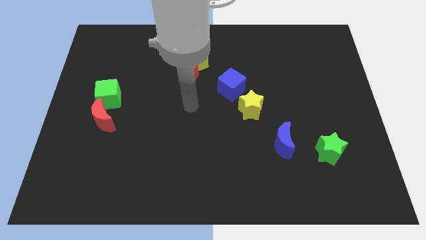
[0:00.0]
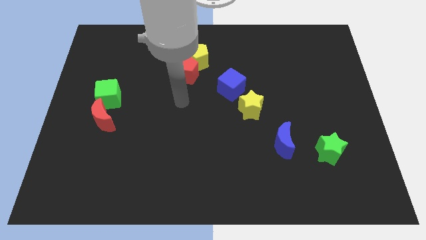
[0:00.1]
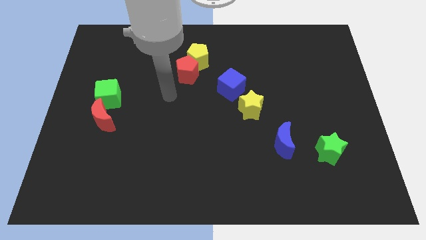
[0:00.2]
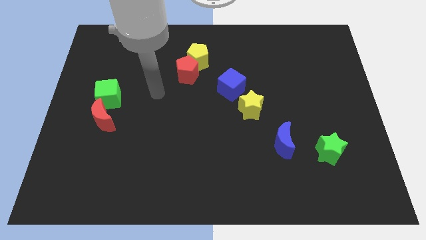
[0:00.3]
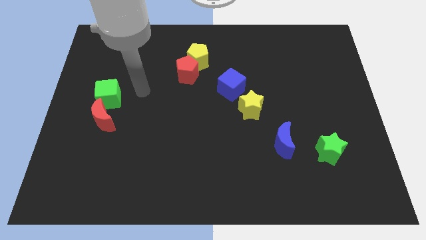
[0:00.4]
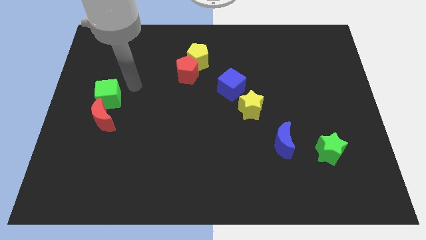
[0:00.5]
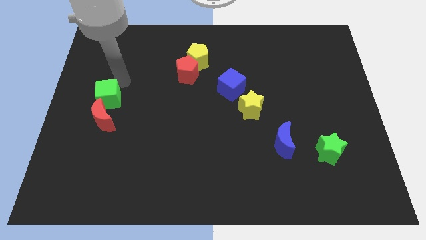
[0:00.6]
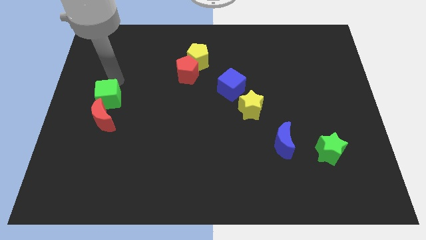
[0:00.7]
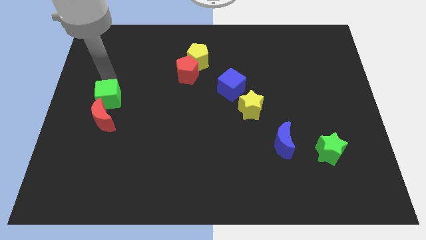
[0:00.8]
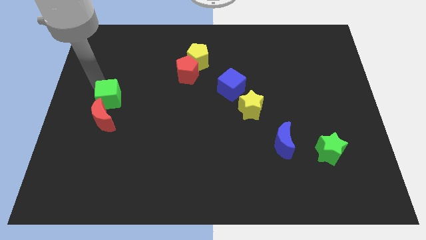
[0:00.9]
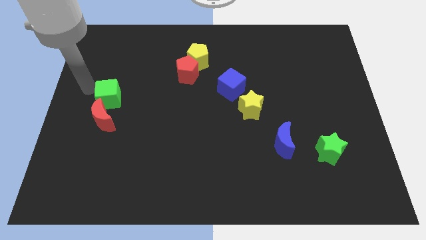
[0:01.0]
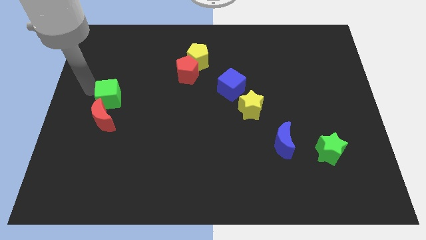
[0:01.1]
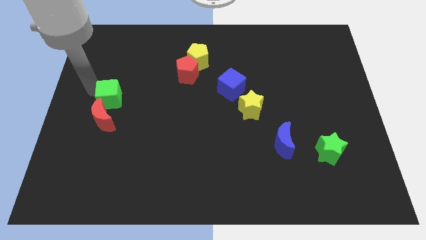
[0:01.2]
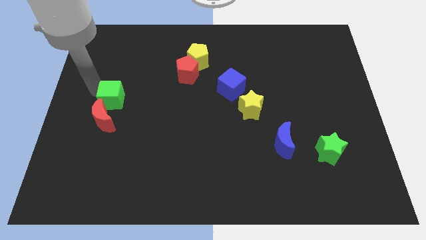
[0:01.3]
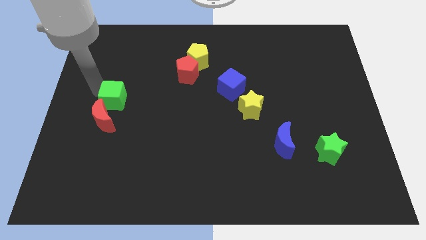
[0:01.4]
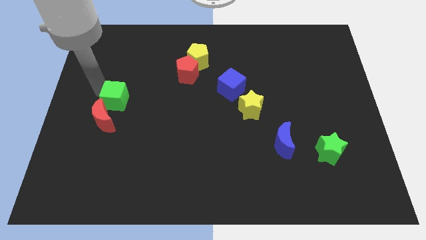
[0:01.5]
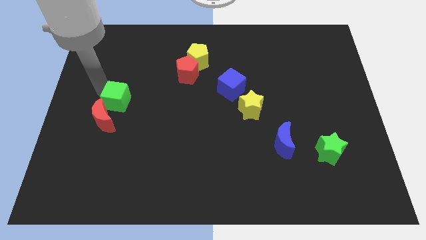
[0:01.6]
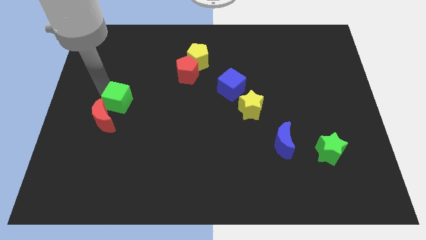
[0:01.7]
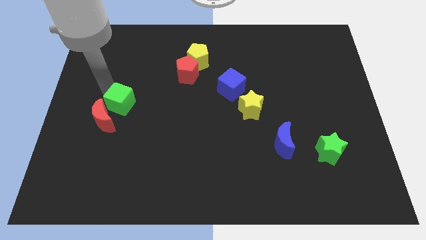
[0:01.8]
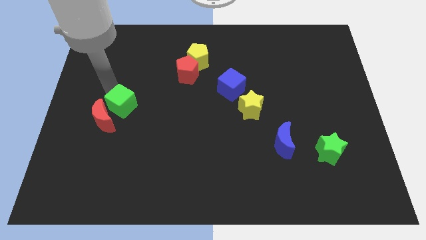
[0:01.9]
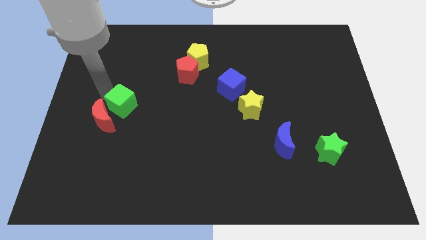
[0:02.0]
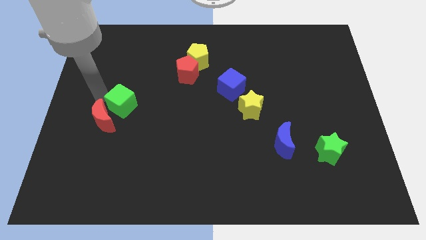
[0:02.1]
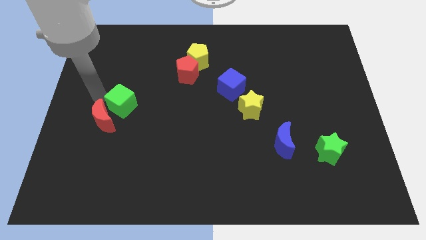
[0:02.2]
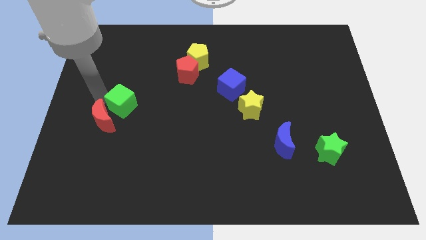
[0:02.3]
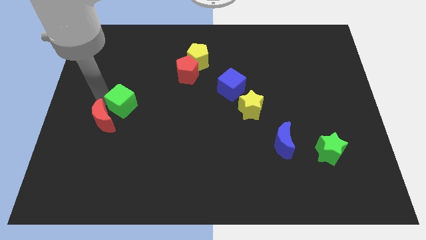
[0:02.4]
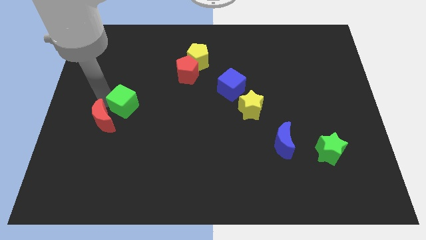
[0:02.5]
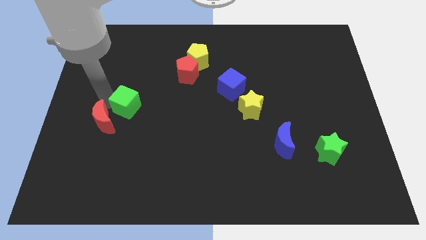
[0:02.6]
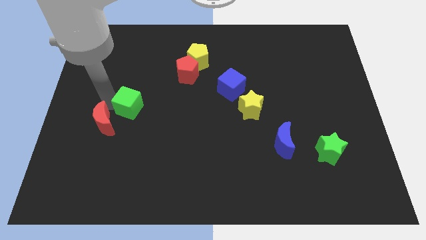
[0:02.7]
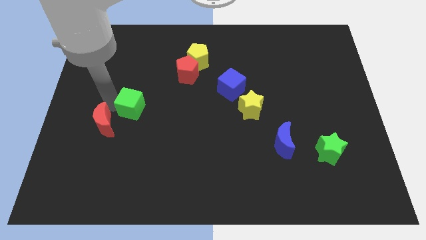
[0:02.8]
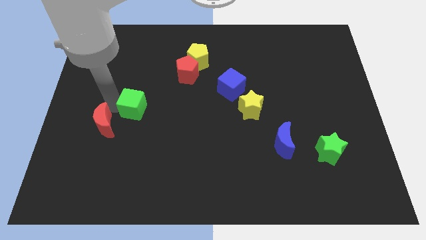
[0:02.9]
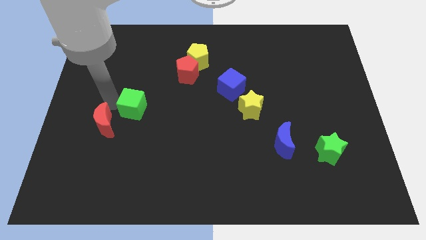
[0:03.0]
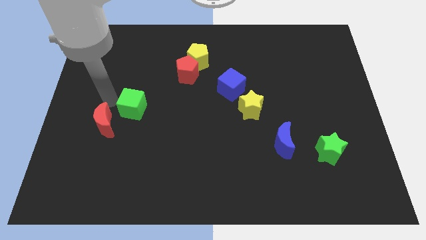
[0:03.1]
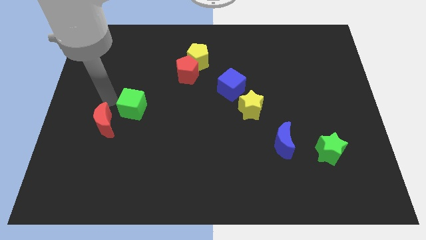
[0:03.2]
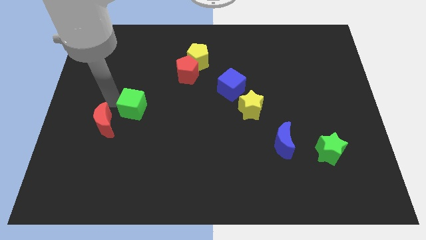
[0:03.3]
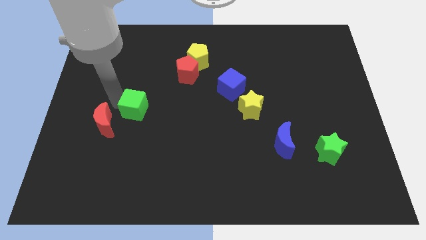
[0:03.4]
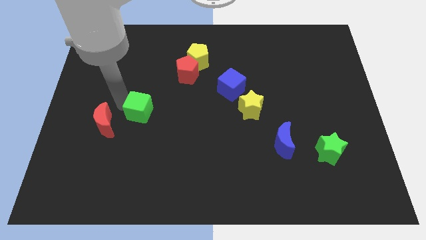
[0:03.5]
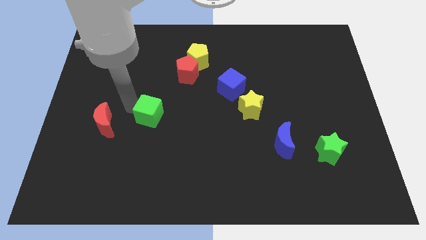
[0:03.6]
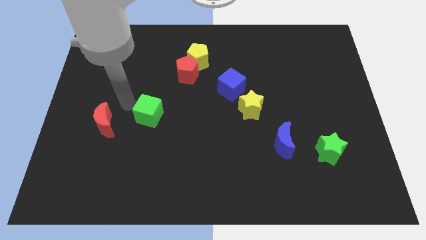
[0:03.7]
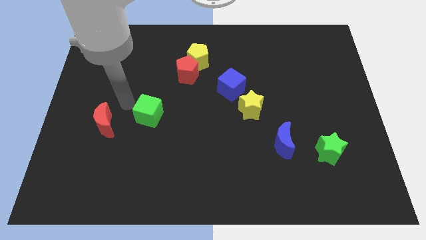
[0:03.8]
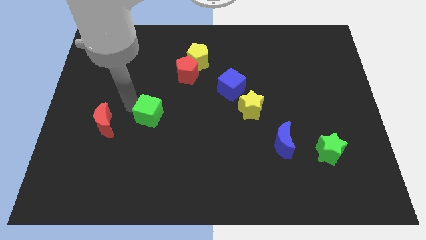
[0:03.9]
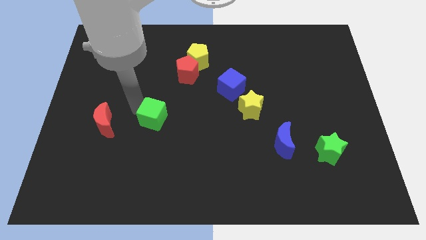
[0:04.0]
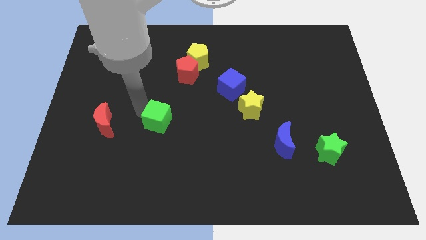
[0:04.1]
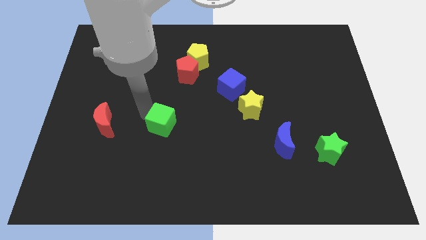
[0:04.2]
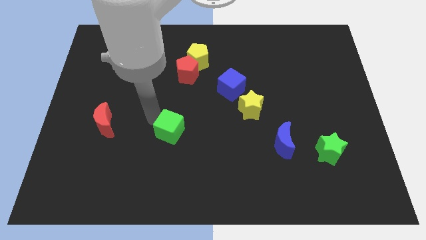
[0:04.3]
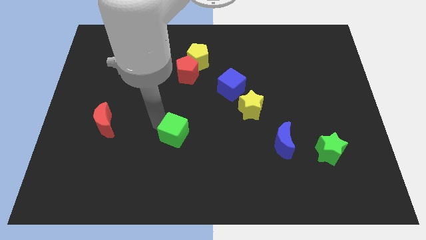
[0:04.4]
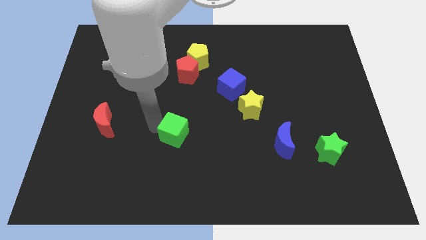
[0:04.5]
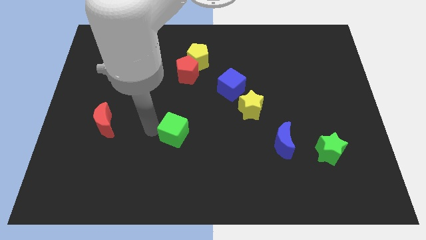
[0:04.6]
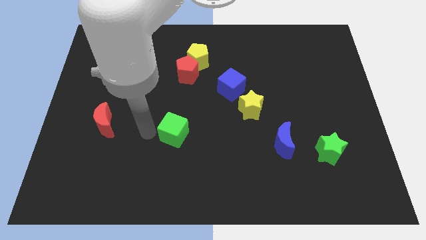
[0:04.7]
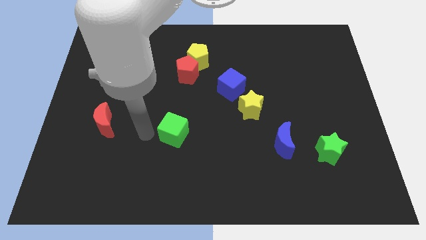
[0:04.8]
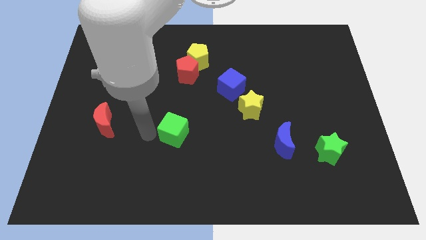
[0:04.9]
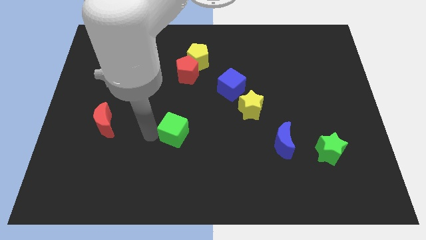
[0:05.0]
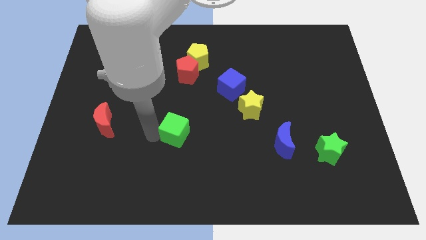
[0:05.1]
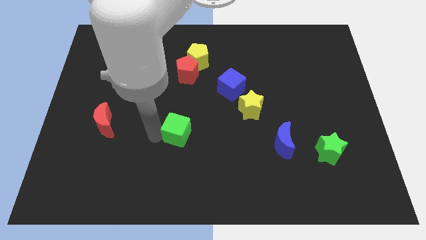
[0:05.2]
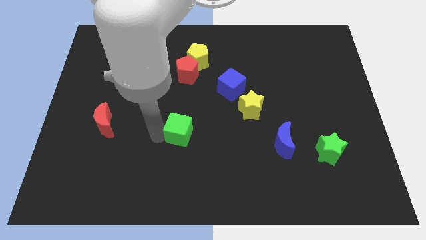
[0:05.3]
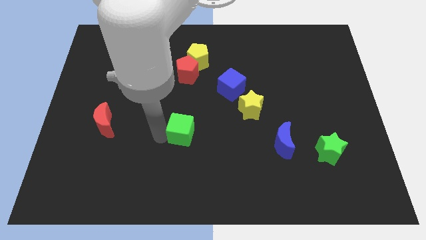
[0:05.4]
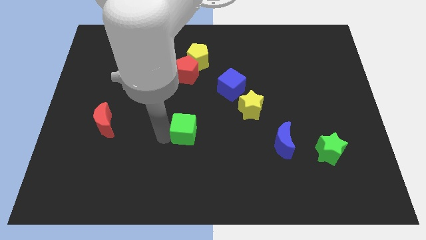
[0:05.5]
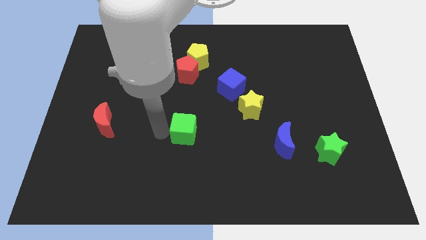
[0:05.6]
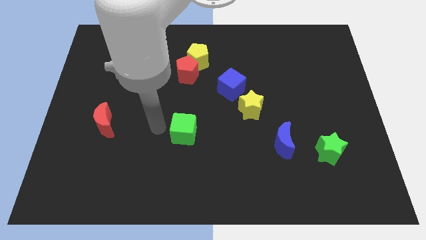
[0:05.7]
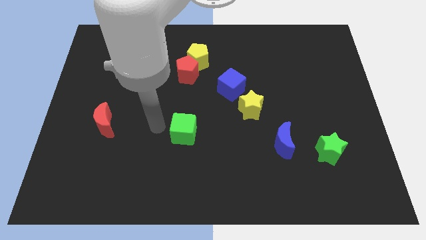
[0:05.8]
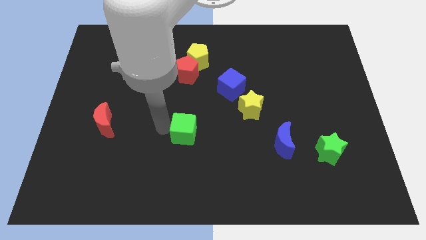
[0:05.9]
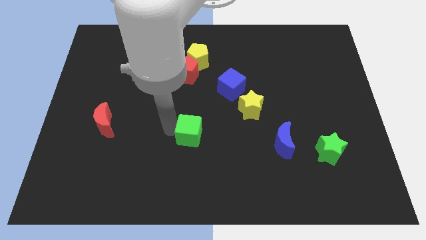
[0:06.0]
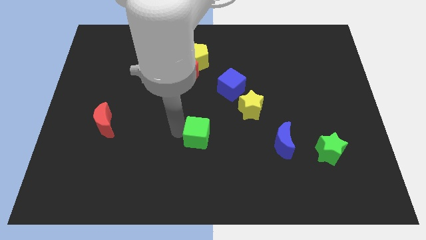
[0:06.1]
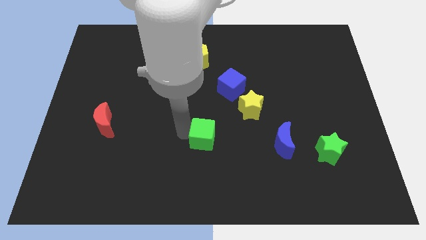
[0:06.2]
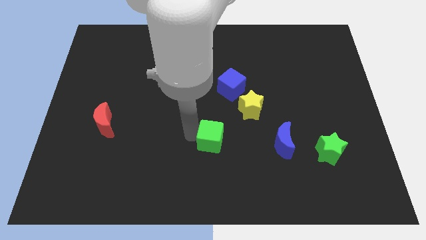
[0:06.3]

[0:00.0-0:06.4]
move the green cube just left of the blue moon
